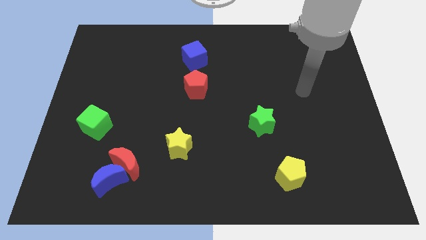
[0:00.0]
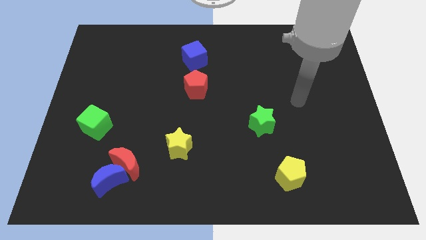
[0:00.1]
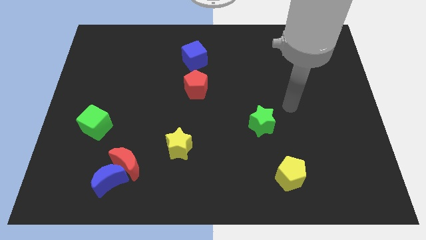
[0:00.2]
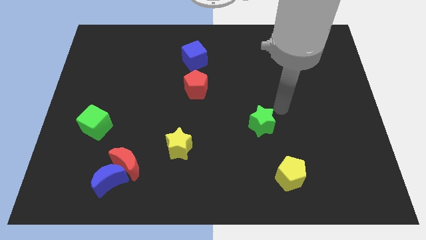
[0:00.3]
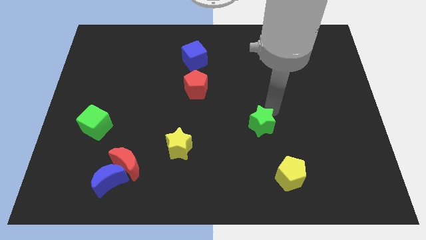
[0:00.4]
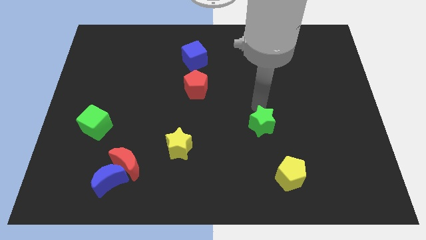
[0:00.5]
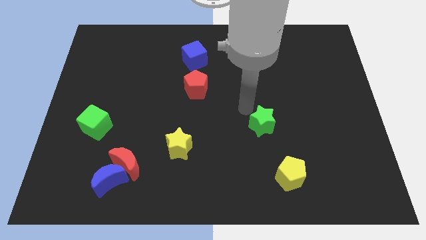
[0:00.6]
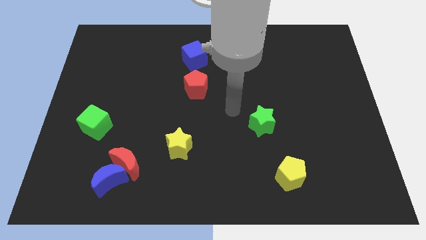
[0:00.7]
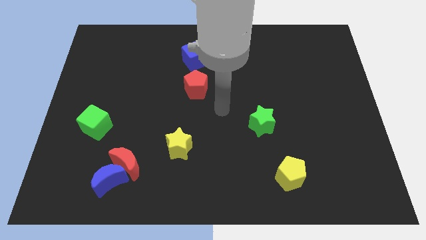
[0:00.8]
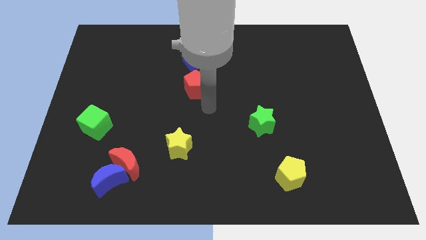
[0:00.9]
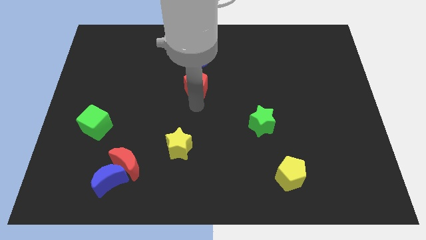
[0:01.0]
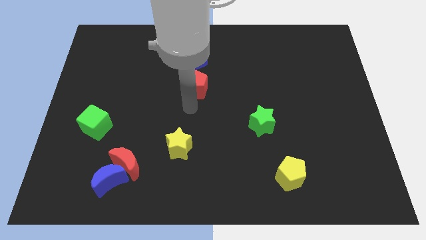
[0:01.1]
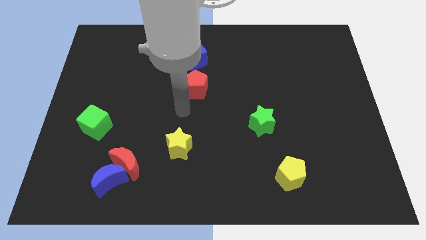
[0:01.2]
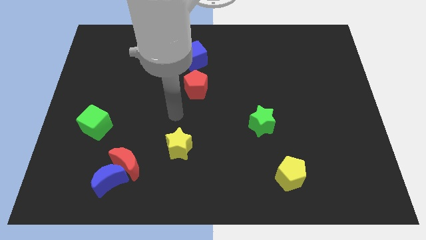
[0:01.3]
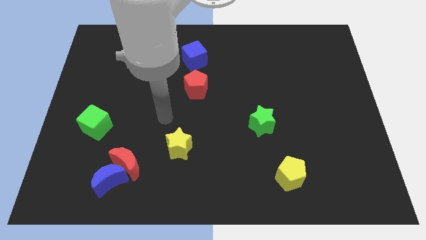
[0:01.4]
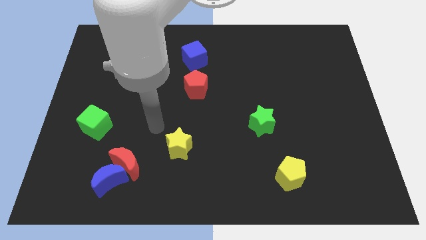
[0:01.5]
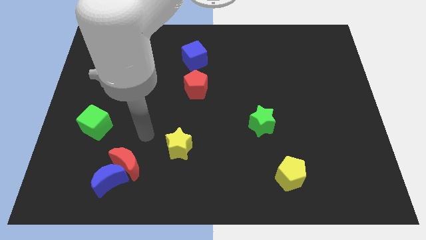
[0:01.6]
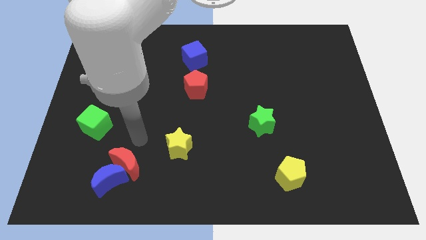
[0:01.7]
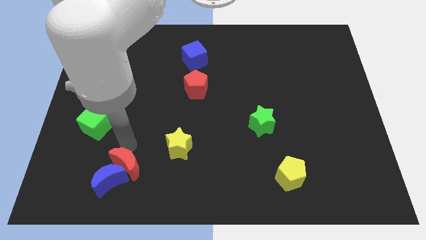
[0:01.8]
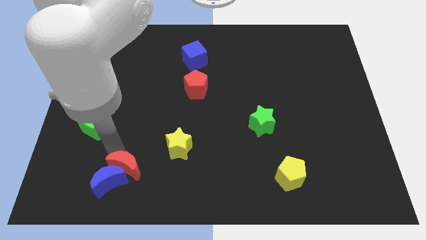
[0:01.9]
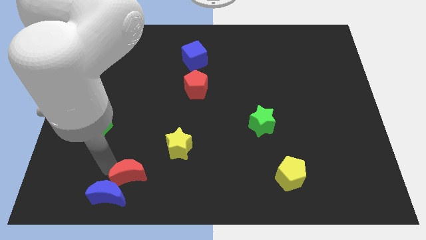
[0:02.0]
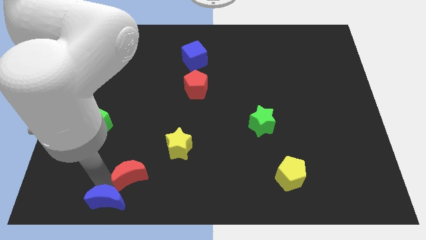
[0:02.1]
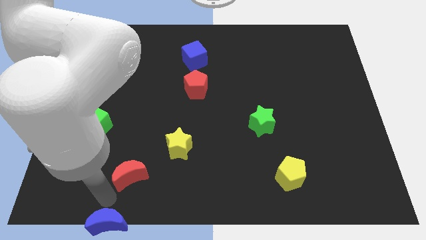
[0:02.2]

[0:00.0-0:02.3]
move the red moon away from the blue moon

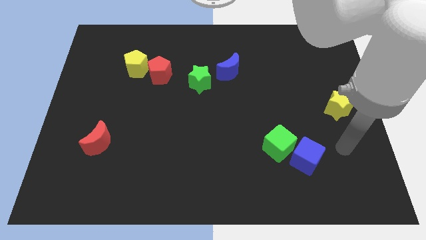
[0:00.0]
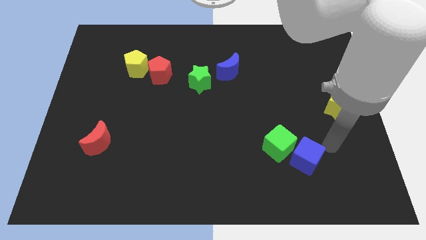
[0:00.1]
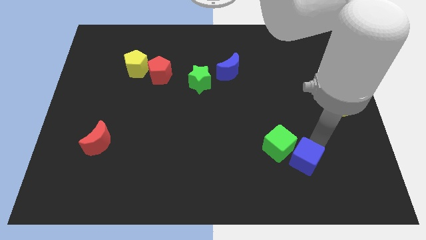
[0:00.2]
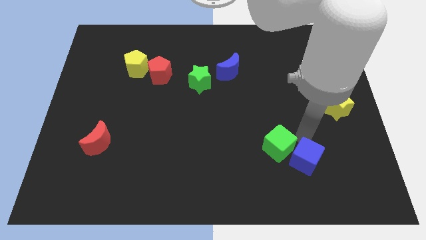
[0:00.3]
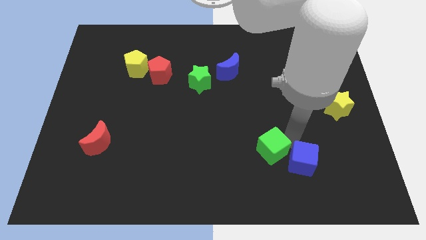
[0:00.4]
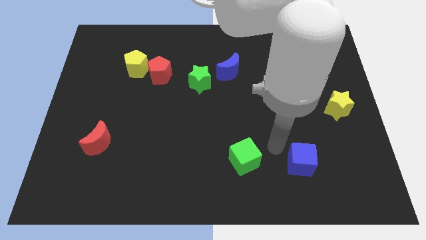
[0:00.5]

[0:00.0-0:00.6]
separate the blue cube from the green cube

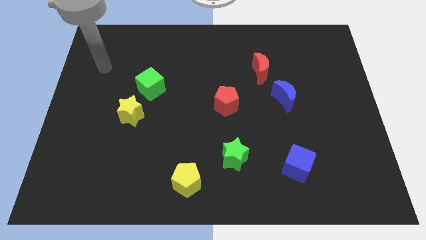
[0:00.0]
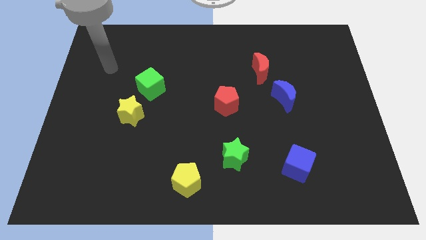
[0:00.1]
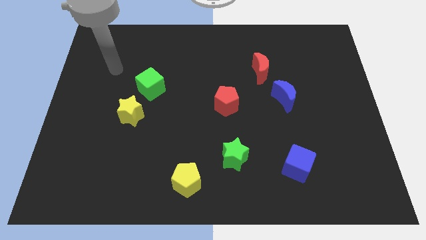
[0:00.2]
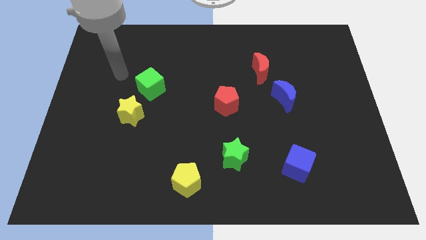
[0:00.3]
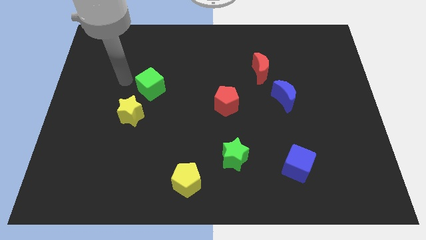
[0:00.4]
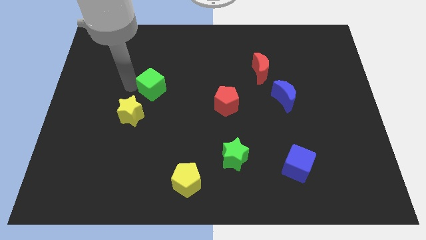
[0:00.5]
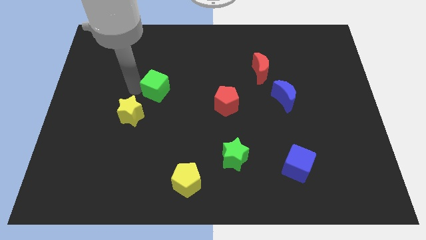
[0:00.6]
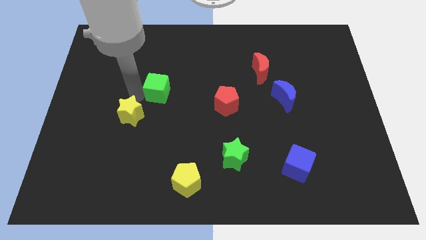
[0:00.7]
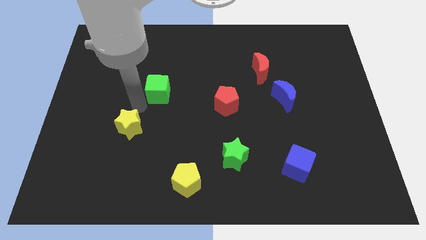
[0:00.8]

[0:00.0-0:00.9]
pull the green cube apart from the yellow star

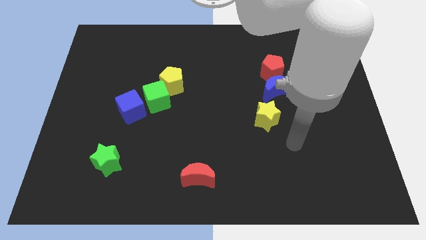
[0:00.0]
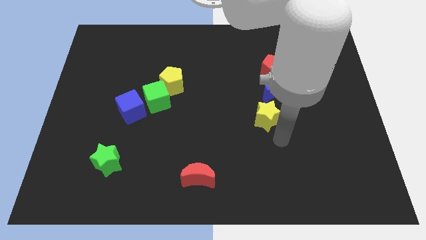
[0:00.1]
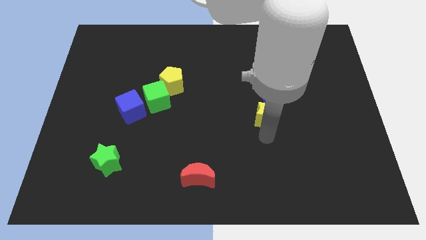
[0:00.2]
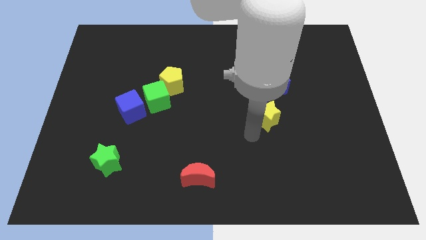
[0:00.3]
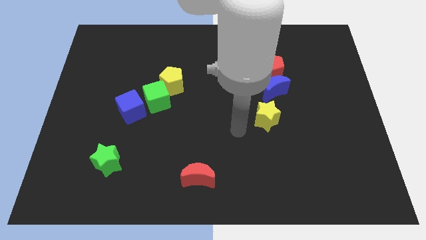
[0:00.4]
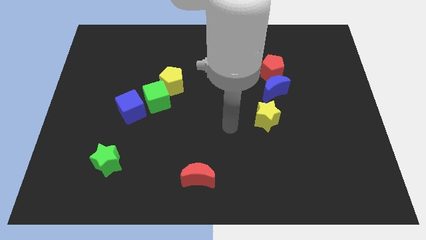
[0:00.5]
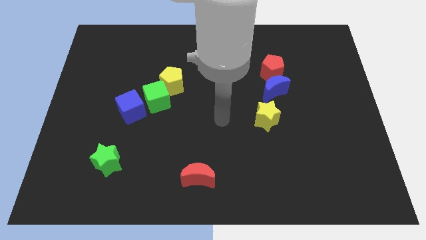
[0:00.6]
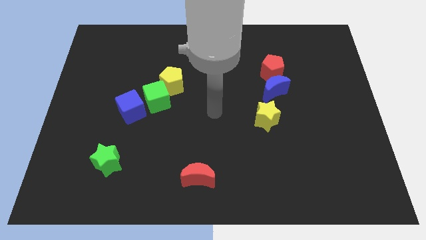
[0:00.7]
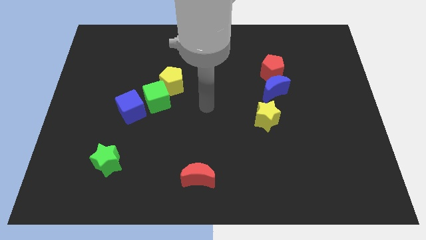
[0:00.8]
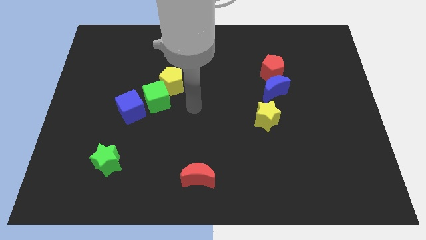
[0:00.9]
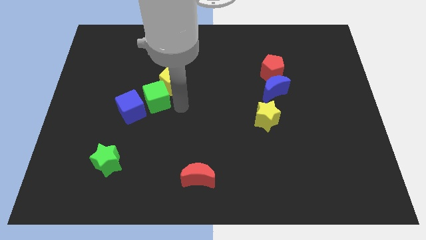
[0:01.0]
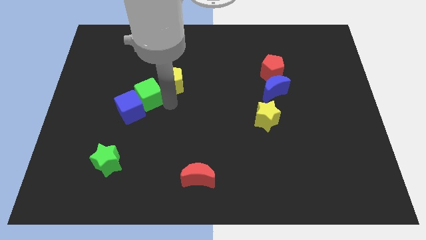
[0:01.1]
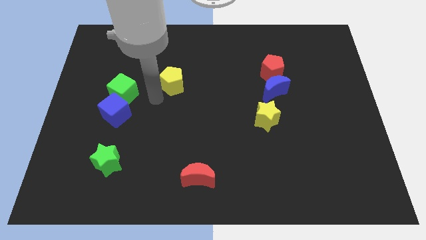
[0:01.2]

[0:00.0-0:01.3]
separate the yellow pentagon from the green cube

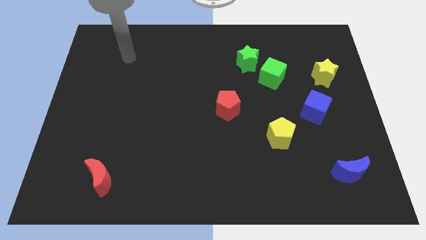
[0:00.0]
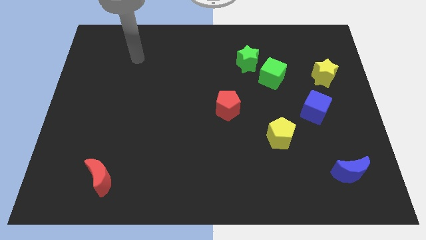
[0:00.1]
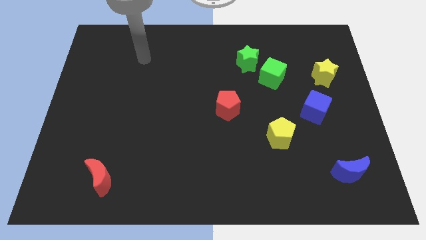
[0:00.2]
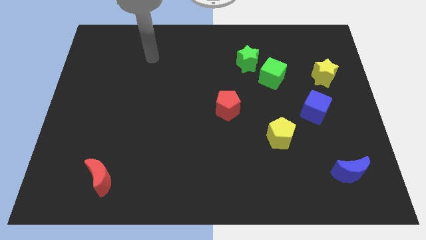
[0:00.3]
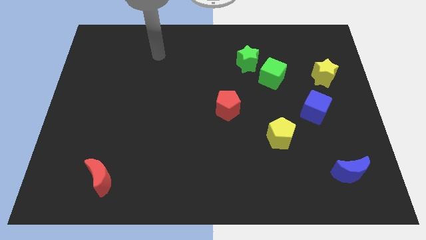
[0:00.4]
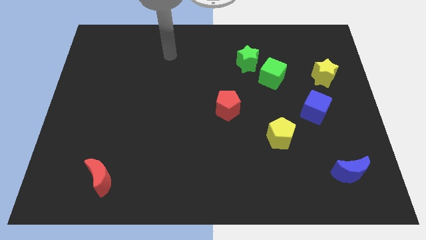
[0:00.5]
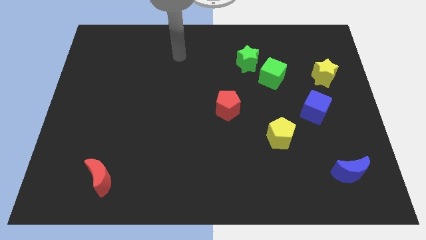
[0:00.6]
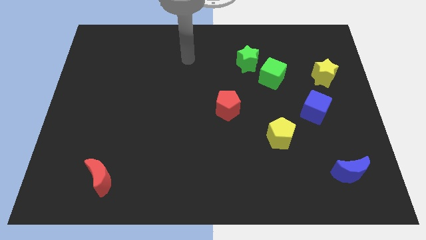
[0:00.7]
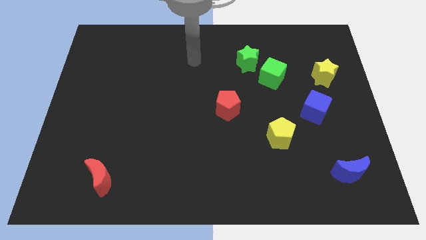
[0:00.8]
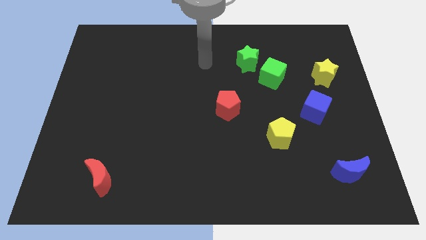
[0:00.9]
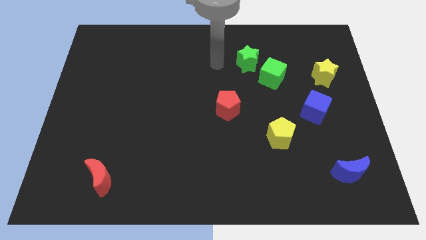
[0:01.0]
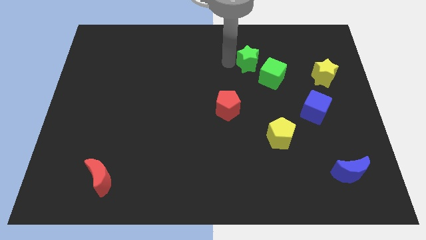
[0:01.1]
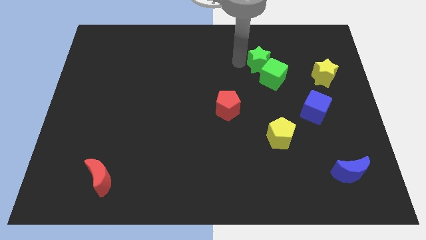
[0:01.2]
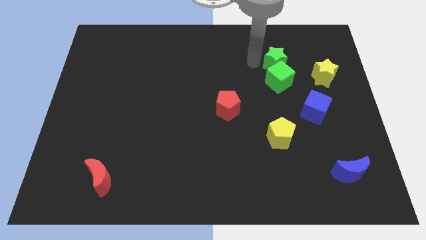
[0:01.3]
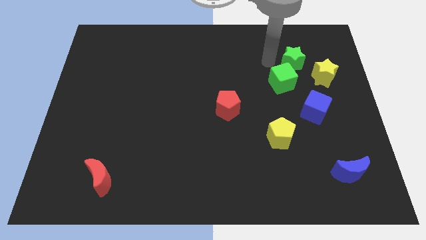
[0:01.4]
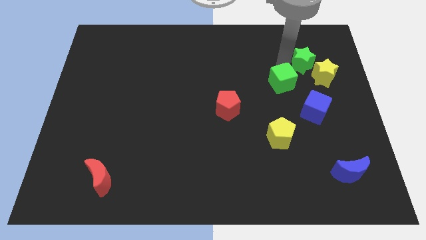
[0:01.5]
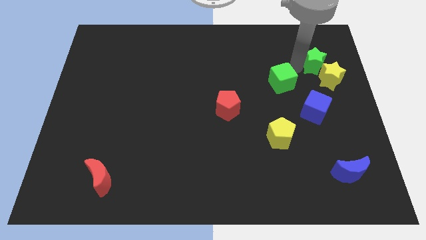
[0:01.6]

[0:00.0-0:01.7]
move the green cube away from the green star

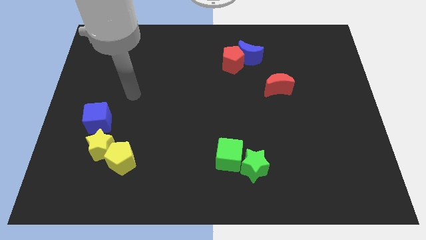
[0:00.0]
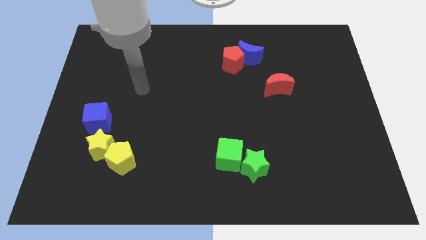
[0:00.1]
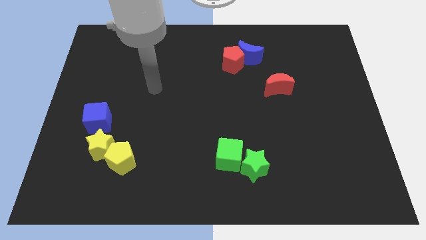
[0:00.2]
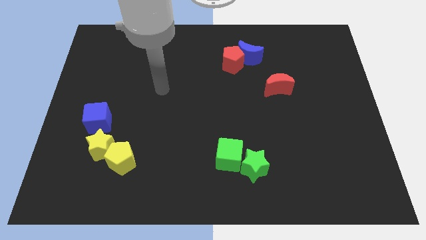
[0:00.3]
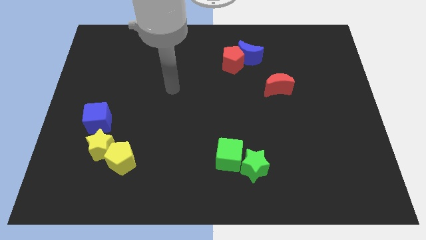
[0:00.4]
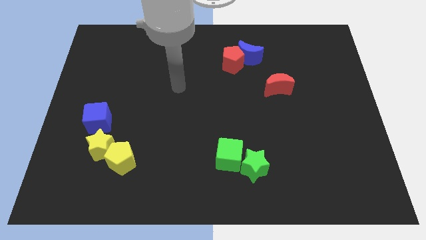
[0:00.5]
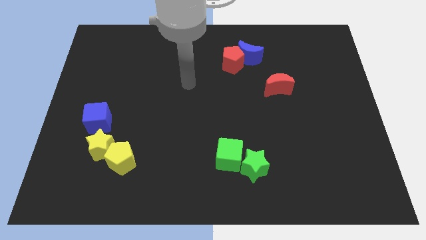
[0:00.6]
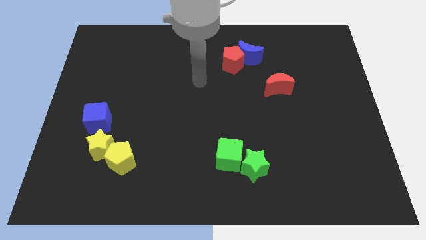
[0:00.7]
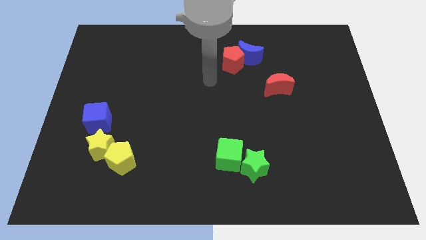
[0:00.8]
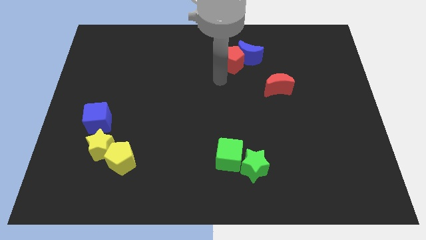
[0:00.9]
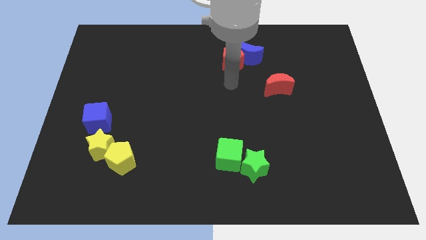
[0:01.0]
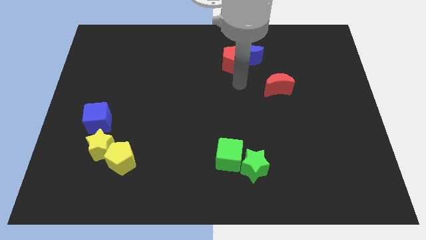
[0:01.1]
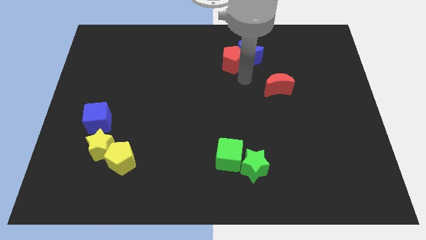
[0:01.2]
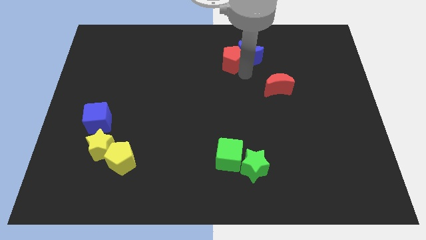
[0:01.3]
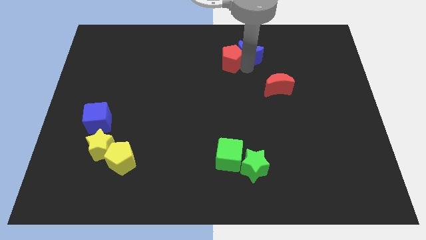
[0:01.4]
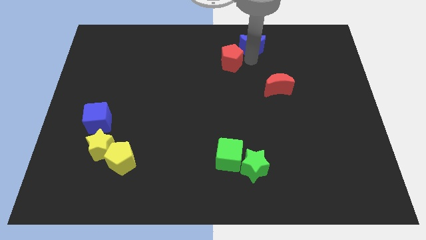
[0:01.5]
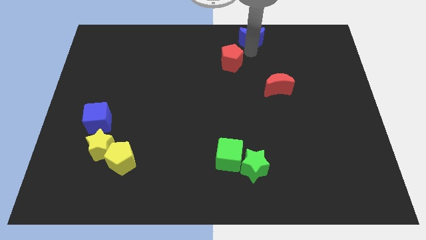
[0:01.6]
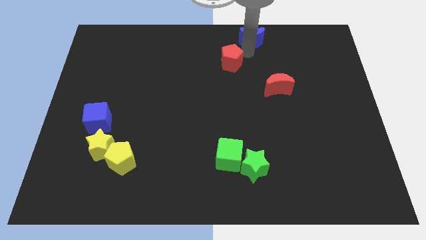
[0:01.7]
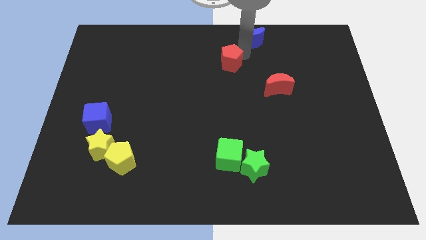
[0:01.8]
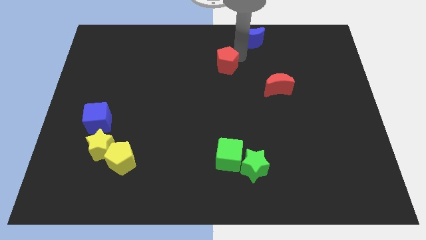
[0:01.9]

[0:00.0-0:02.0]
move the red pentagon away from the blue moon

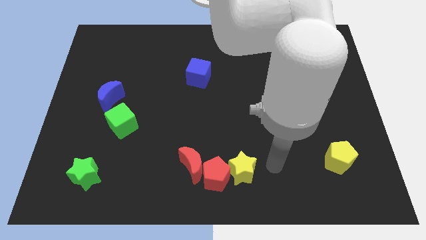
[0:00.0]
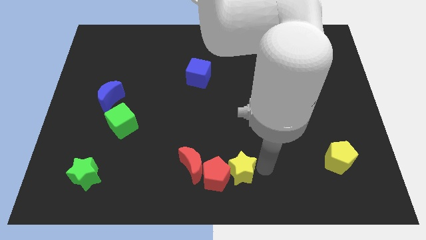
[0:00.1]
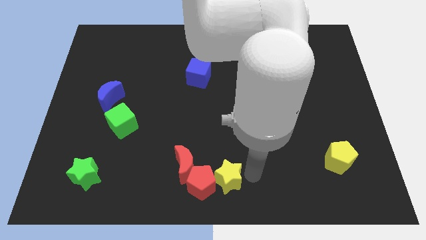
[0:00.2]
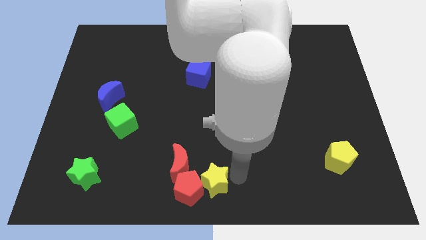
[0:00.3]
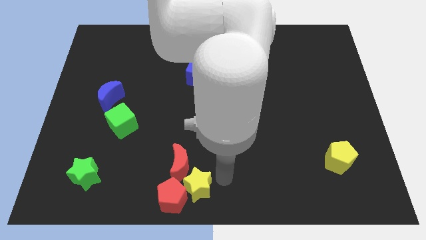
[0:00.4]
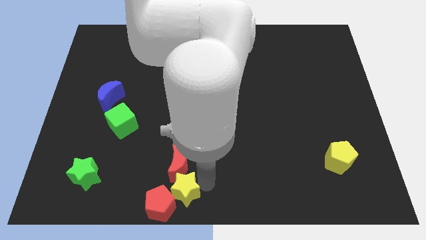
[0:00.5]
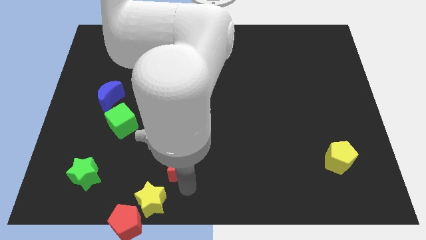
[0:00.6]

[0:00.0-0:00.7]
separate the red moon from the red pentagon
